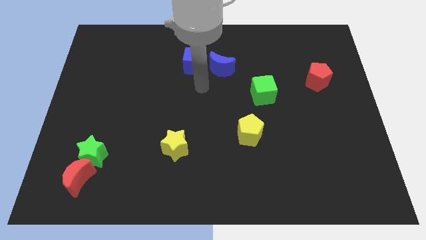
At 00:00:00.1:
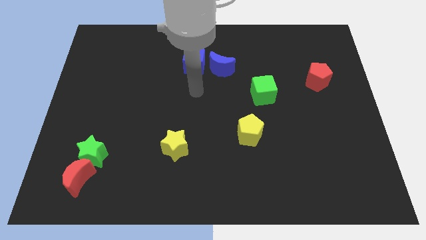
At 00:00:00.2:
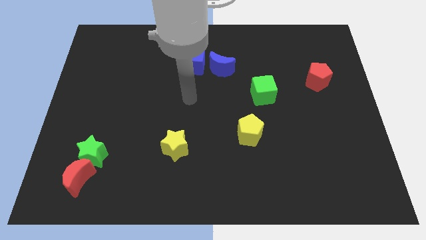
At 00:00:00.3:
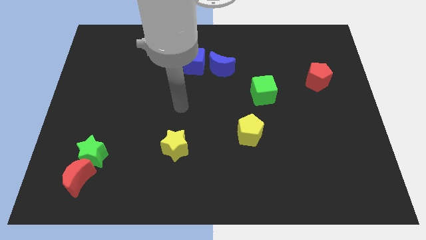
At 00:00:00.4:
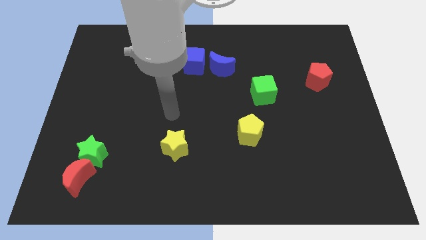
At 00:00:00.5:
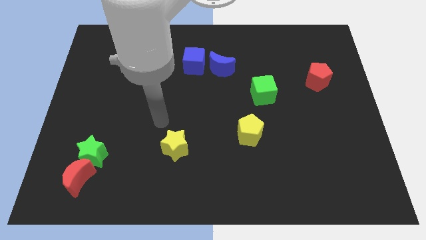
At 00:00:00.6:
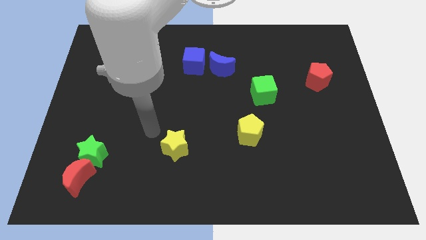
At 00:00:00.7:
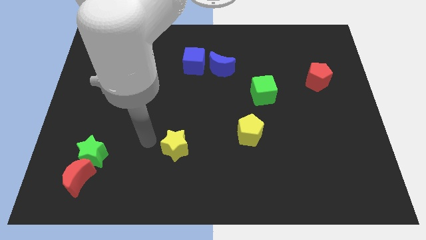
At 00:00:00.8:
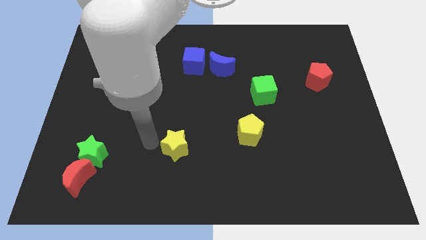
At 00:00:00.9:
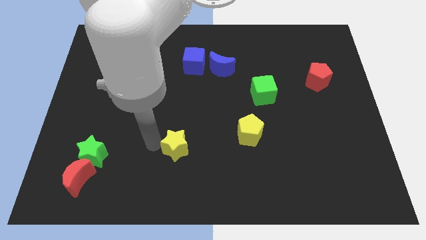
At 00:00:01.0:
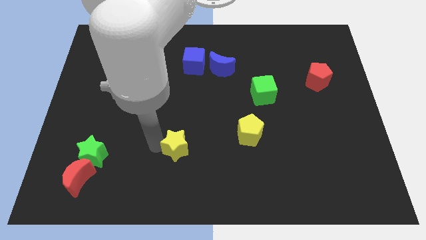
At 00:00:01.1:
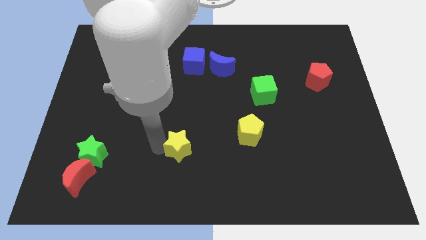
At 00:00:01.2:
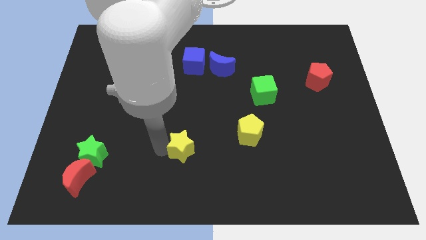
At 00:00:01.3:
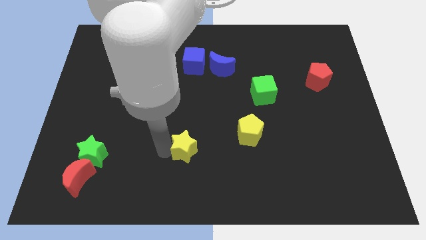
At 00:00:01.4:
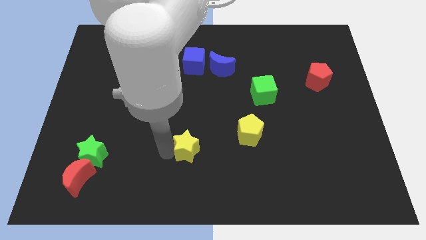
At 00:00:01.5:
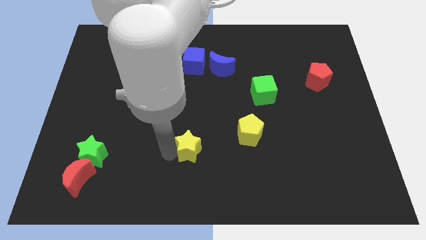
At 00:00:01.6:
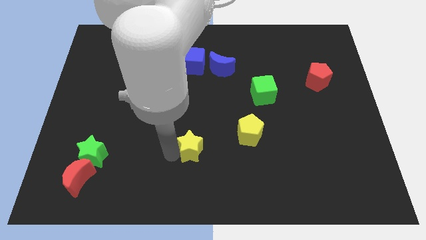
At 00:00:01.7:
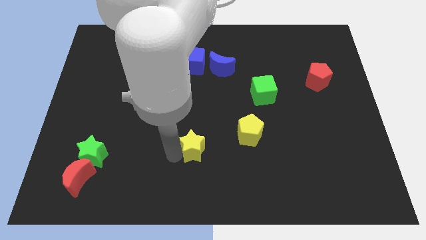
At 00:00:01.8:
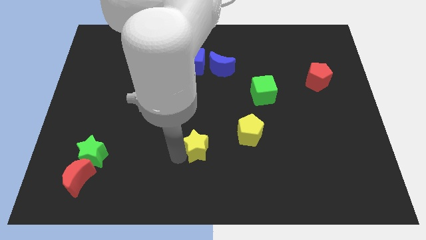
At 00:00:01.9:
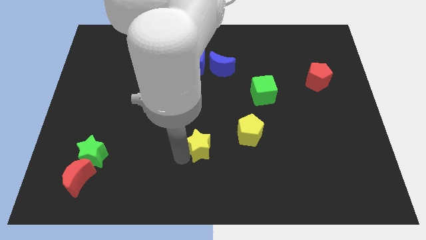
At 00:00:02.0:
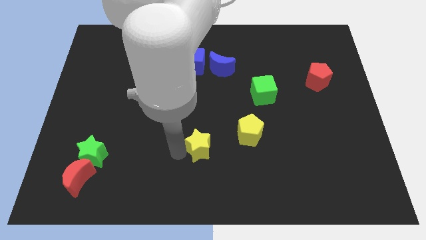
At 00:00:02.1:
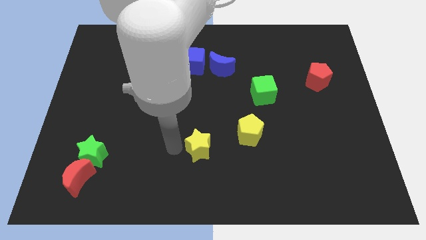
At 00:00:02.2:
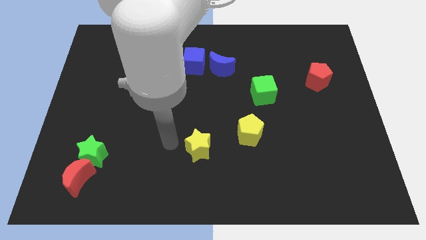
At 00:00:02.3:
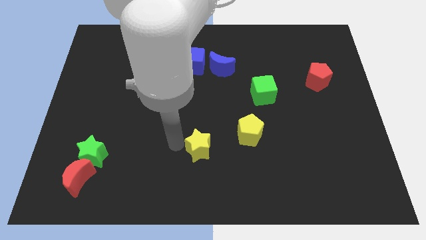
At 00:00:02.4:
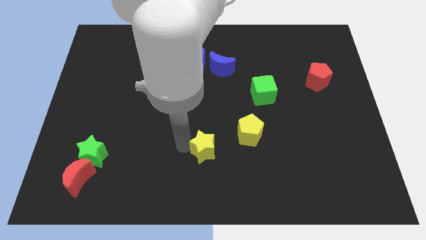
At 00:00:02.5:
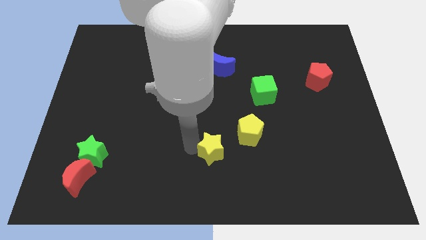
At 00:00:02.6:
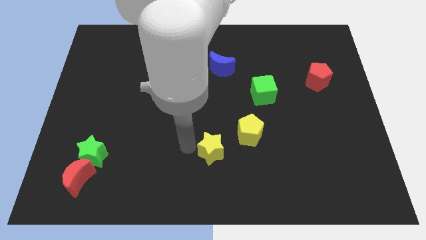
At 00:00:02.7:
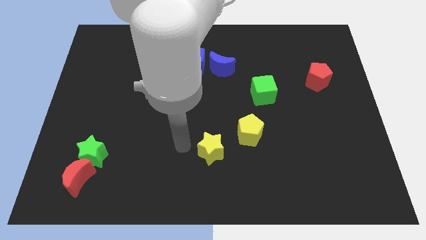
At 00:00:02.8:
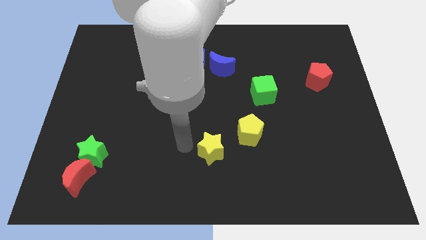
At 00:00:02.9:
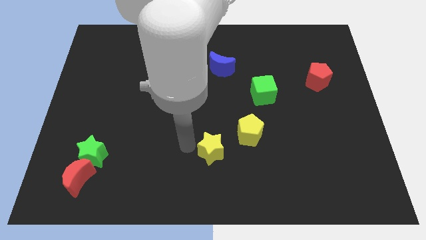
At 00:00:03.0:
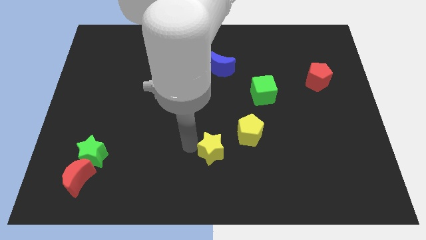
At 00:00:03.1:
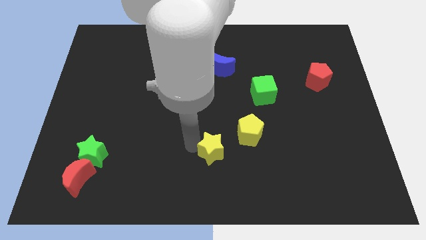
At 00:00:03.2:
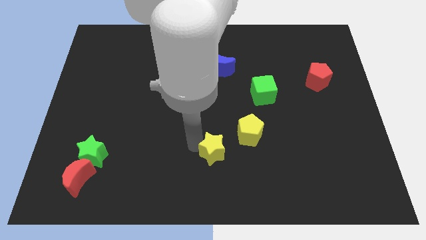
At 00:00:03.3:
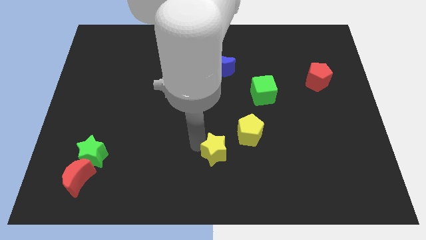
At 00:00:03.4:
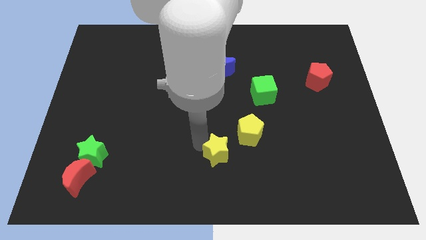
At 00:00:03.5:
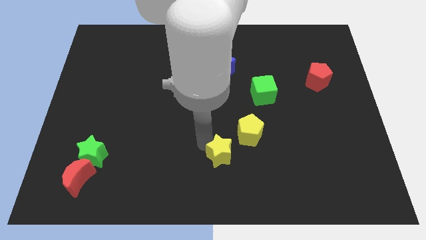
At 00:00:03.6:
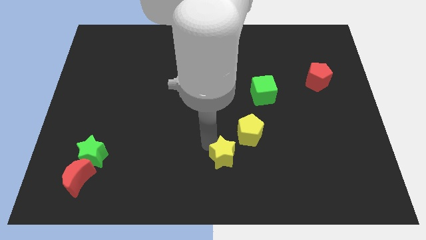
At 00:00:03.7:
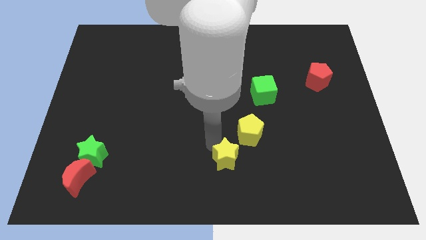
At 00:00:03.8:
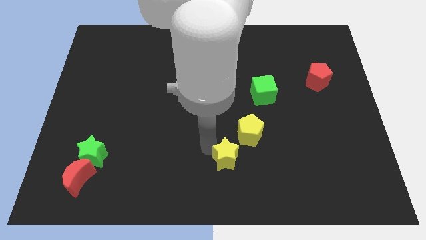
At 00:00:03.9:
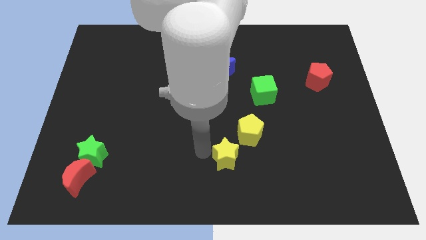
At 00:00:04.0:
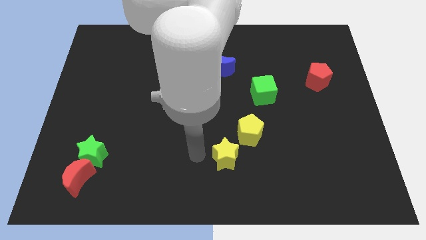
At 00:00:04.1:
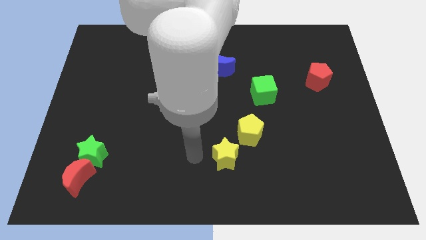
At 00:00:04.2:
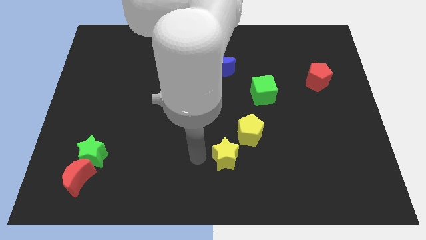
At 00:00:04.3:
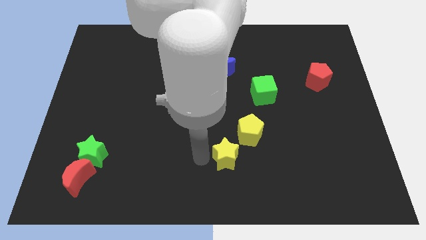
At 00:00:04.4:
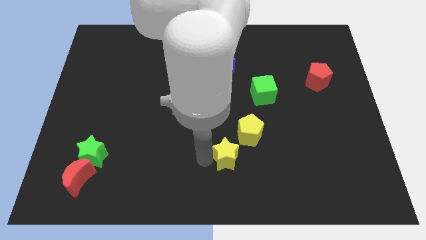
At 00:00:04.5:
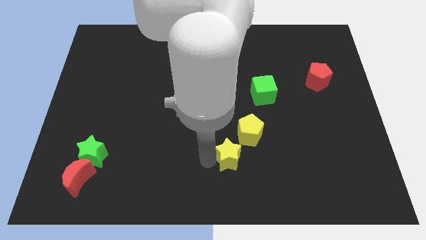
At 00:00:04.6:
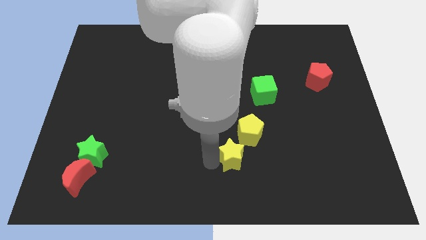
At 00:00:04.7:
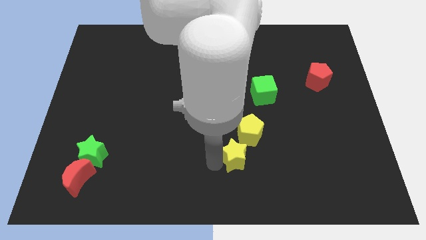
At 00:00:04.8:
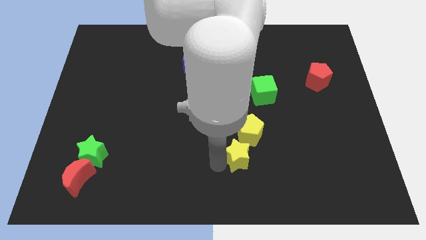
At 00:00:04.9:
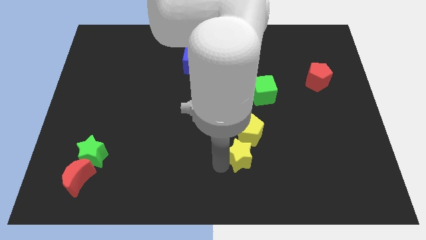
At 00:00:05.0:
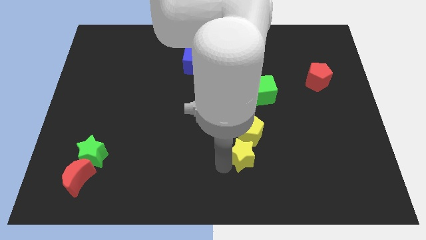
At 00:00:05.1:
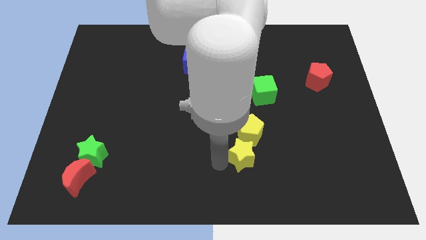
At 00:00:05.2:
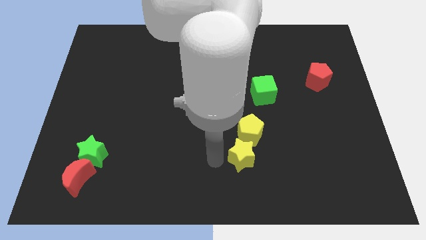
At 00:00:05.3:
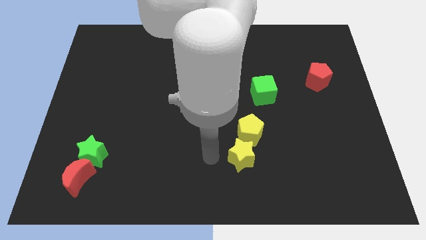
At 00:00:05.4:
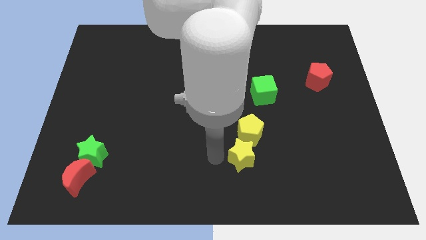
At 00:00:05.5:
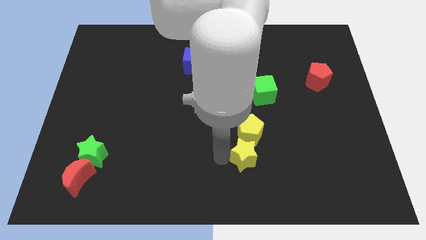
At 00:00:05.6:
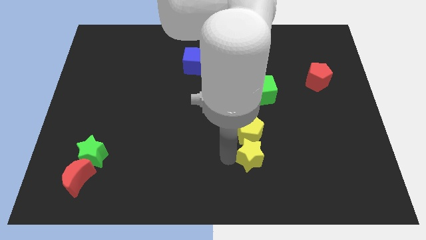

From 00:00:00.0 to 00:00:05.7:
push the yellow star to the bottom right side of the yellow pentagon

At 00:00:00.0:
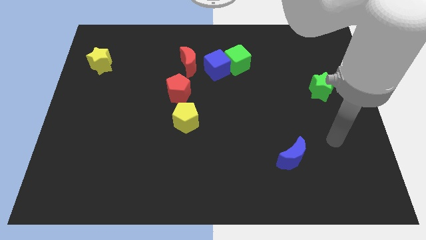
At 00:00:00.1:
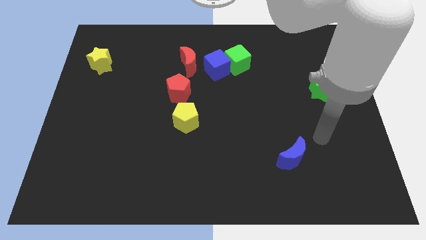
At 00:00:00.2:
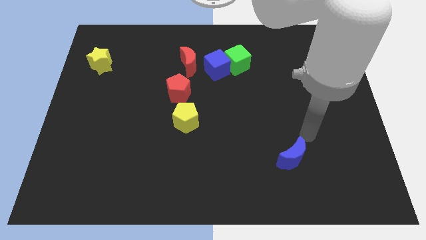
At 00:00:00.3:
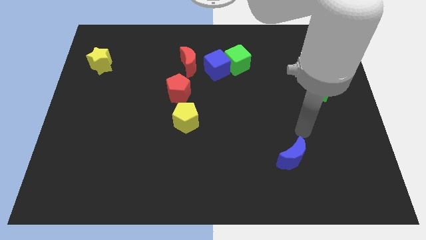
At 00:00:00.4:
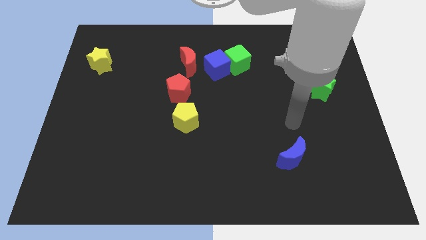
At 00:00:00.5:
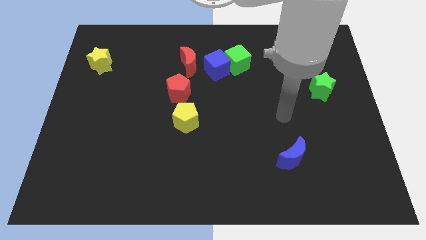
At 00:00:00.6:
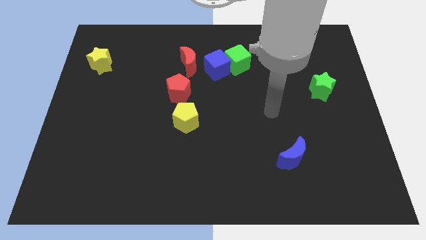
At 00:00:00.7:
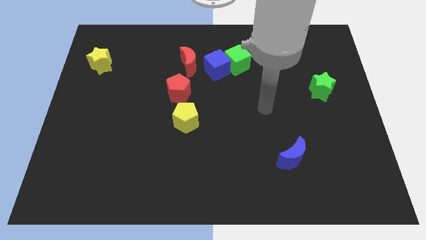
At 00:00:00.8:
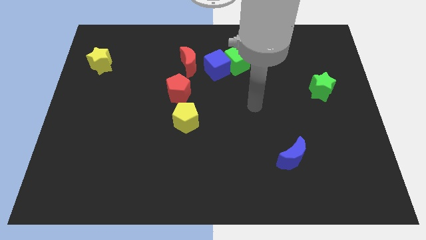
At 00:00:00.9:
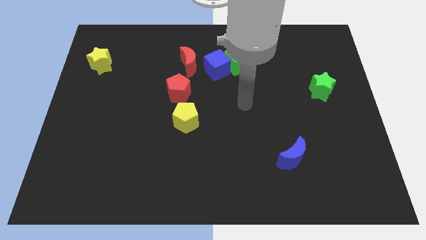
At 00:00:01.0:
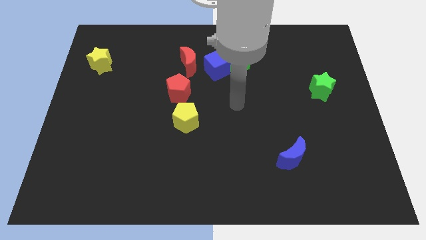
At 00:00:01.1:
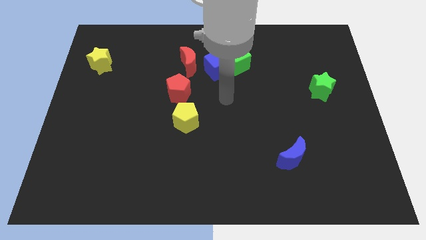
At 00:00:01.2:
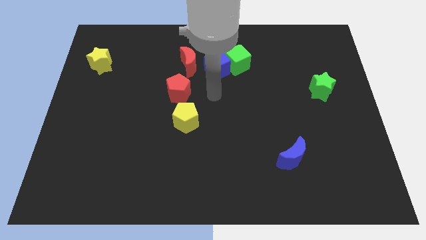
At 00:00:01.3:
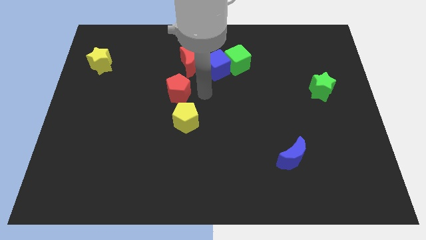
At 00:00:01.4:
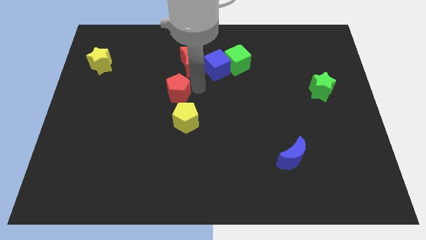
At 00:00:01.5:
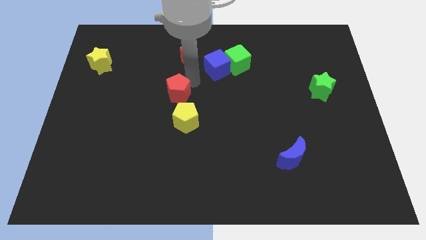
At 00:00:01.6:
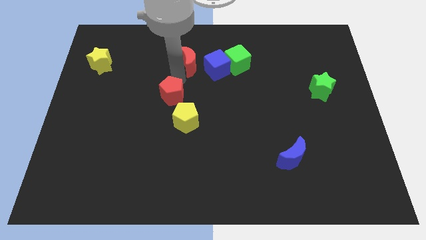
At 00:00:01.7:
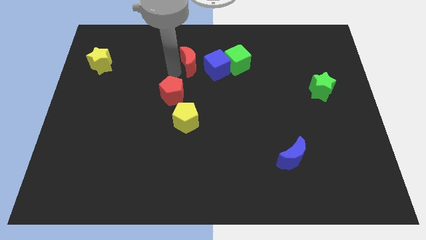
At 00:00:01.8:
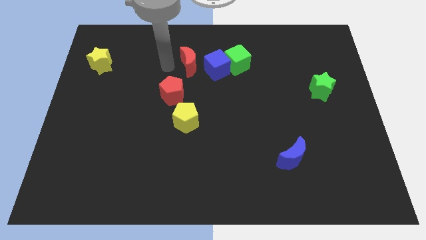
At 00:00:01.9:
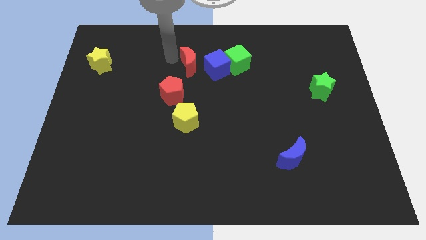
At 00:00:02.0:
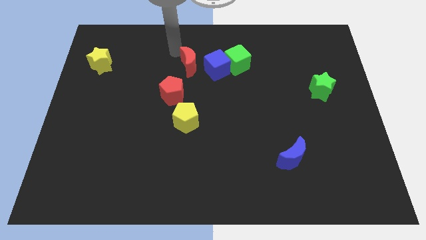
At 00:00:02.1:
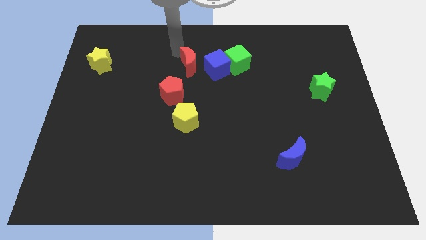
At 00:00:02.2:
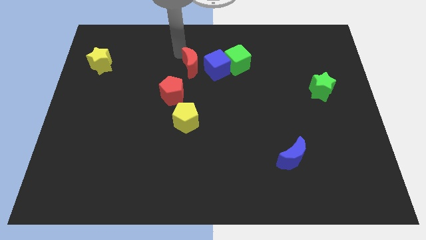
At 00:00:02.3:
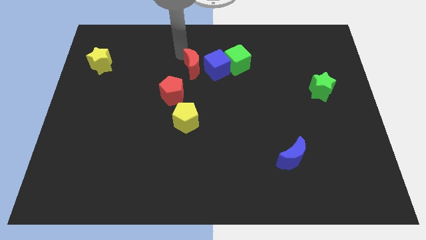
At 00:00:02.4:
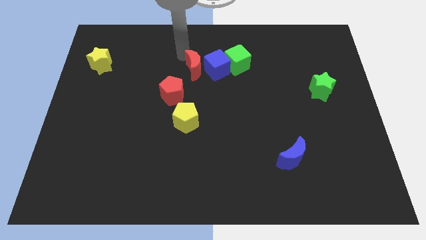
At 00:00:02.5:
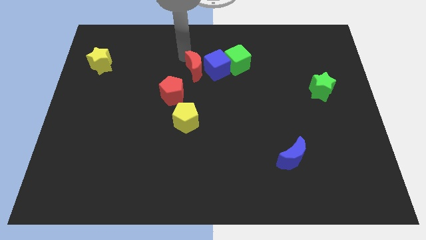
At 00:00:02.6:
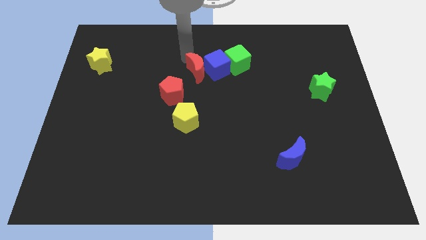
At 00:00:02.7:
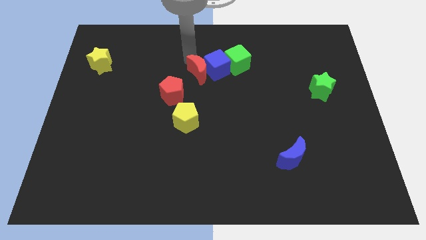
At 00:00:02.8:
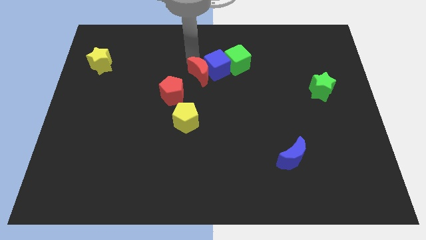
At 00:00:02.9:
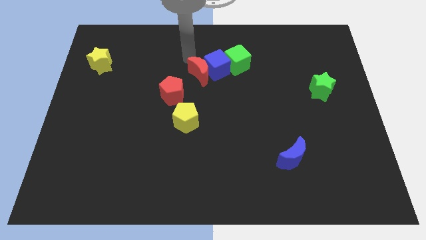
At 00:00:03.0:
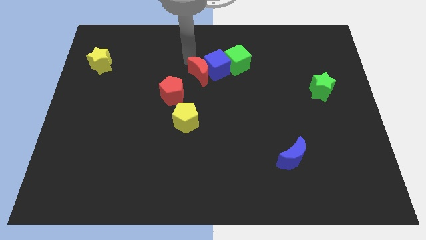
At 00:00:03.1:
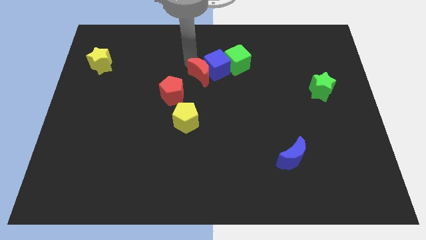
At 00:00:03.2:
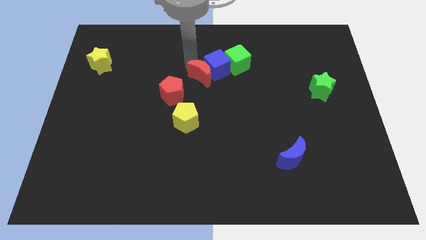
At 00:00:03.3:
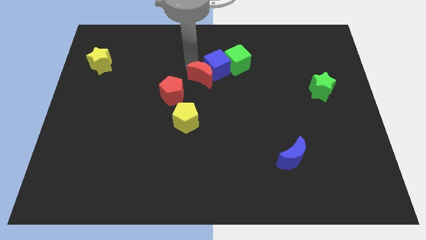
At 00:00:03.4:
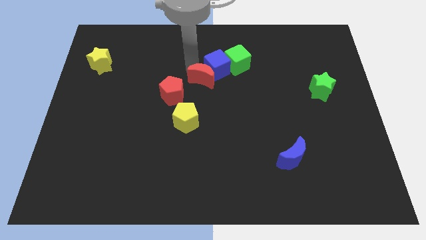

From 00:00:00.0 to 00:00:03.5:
put the red moon just right of the red pentagon
